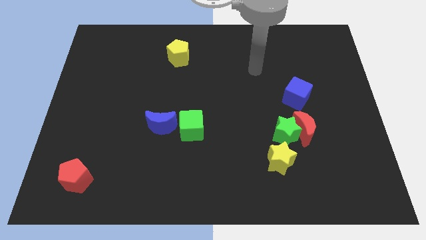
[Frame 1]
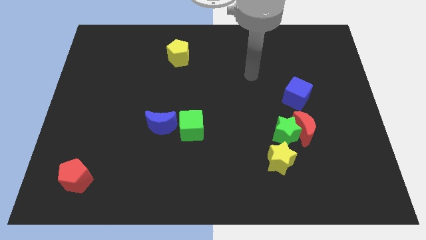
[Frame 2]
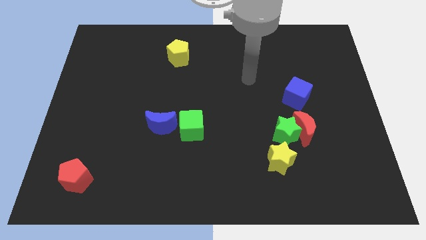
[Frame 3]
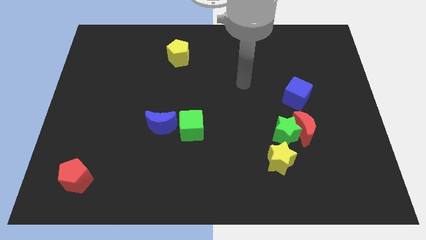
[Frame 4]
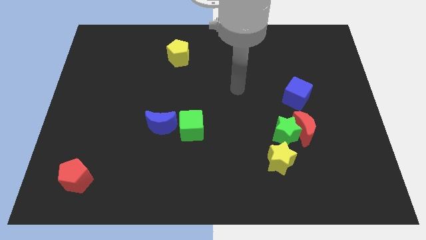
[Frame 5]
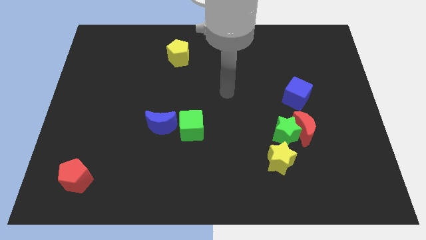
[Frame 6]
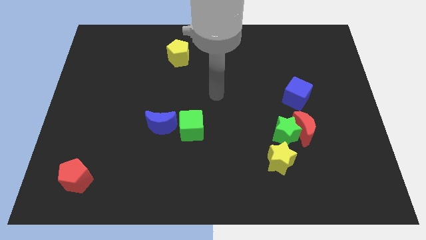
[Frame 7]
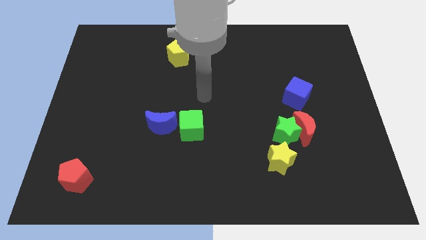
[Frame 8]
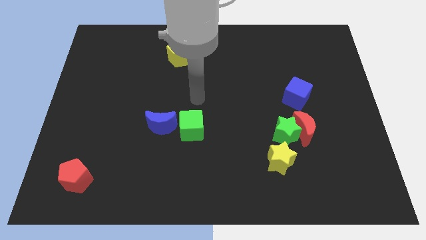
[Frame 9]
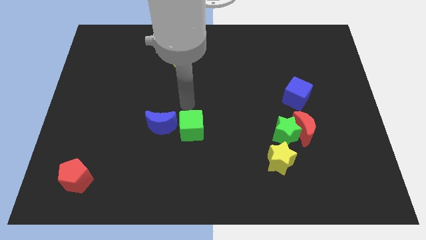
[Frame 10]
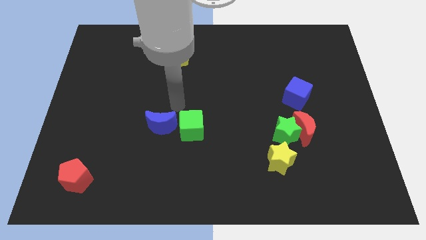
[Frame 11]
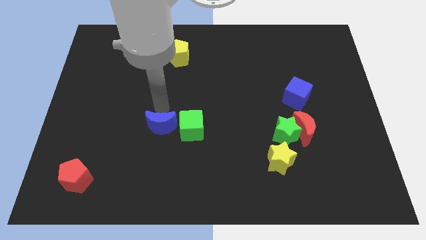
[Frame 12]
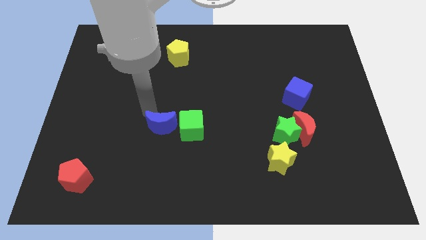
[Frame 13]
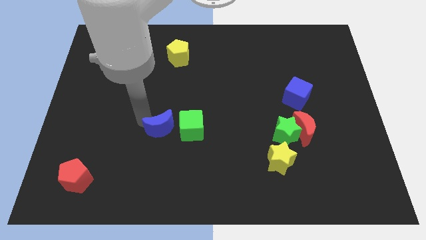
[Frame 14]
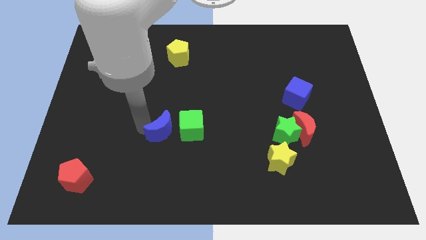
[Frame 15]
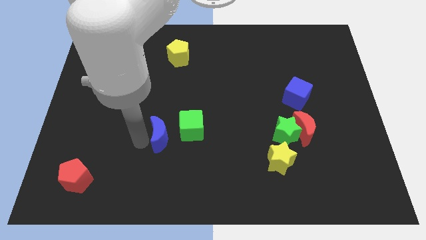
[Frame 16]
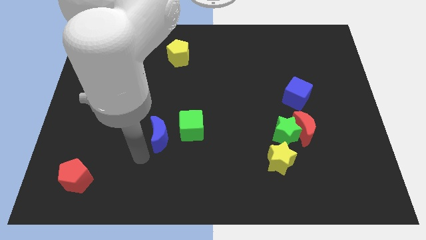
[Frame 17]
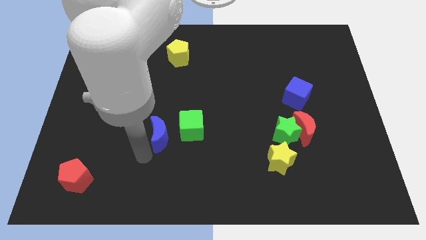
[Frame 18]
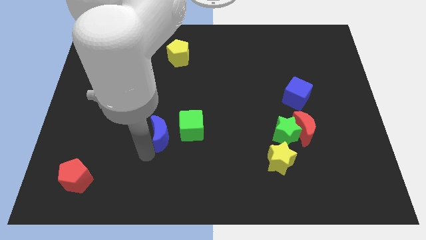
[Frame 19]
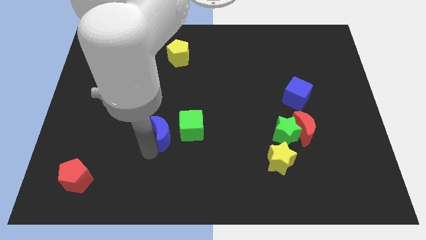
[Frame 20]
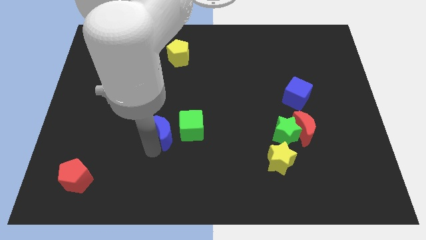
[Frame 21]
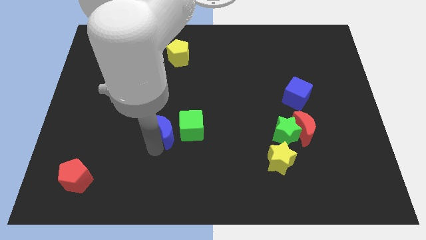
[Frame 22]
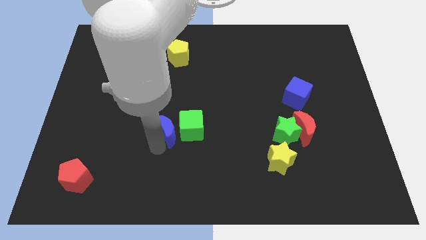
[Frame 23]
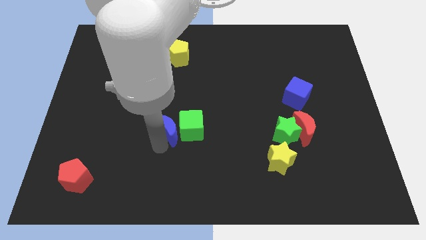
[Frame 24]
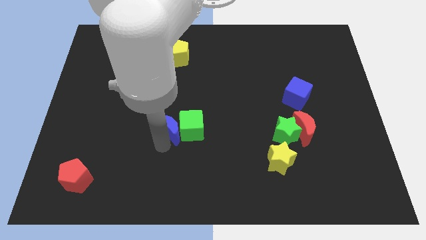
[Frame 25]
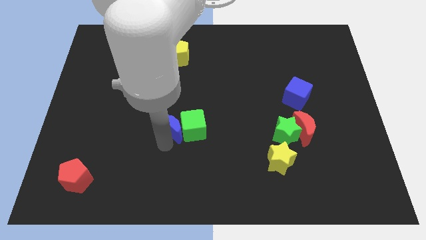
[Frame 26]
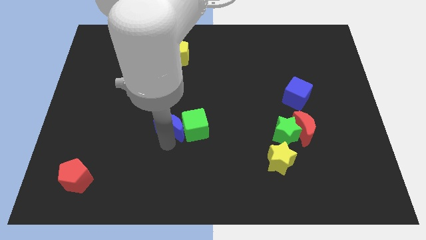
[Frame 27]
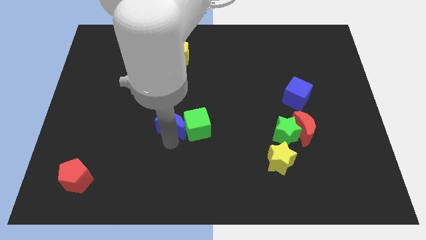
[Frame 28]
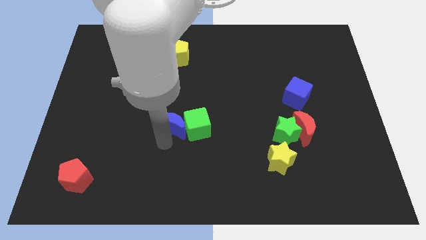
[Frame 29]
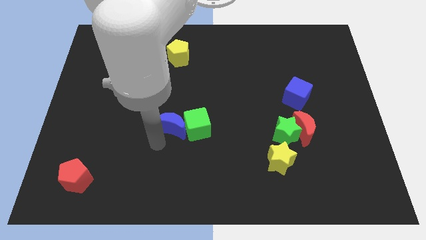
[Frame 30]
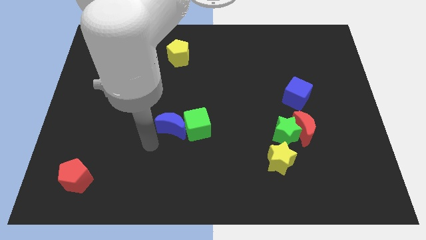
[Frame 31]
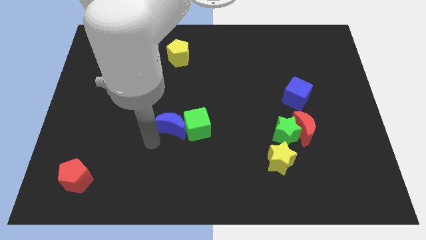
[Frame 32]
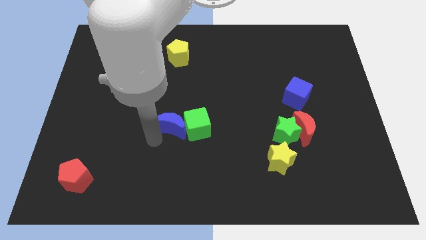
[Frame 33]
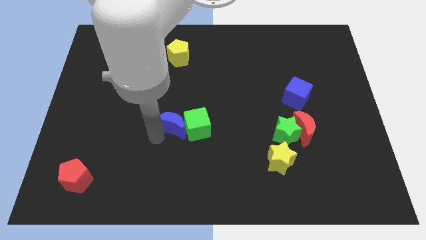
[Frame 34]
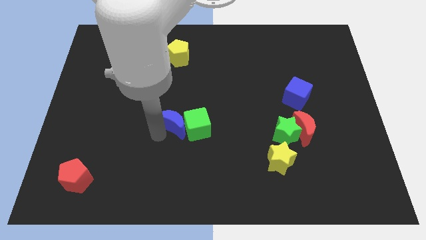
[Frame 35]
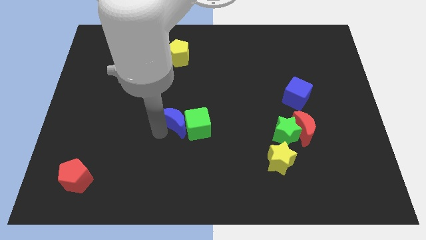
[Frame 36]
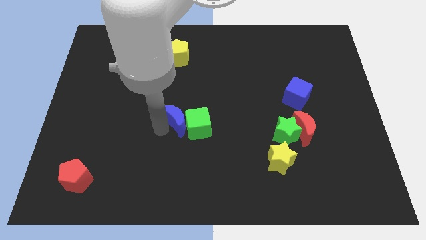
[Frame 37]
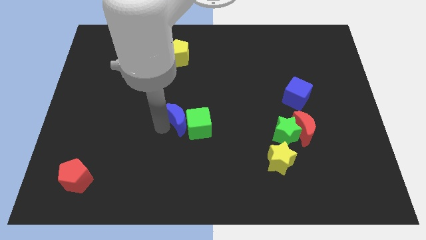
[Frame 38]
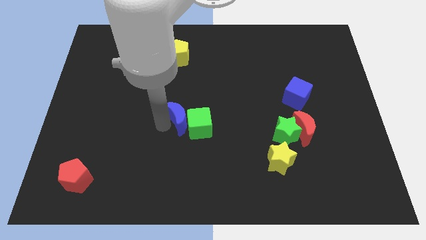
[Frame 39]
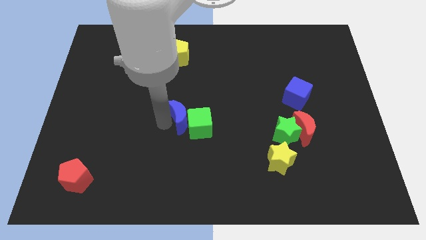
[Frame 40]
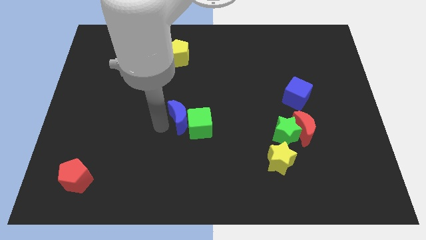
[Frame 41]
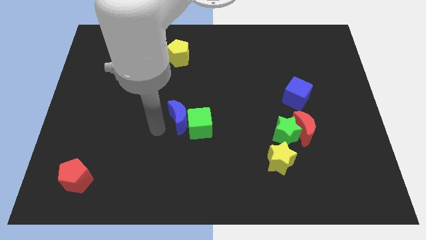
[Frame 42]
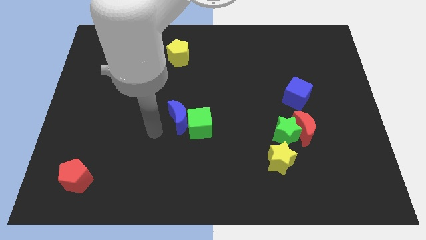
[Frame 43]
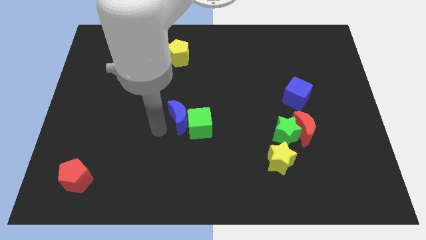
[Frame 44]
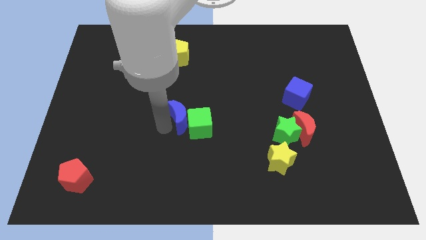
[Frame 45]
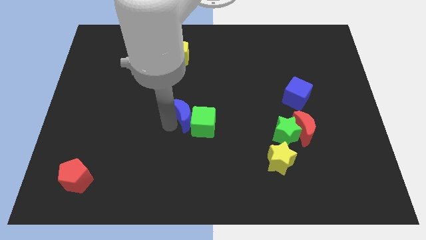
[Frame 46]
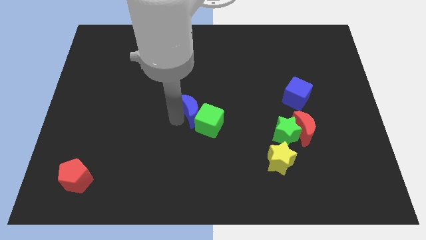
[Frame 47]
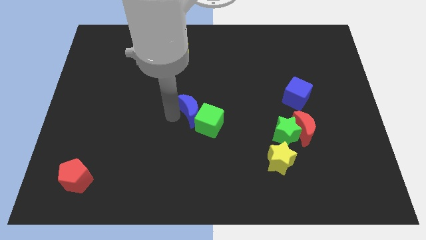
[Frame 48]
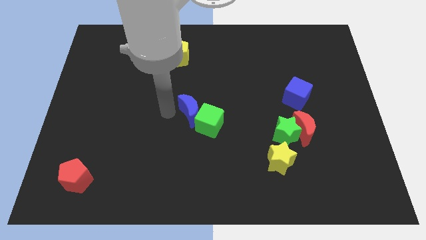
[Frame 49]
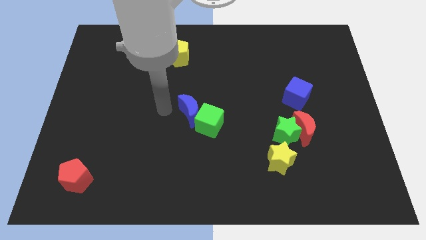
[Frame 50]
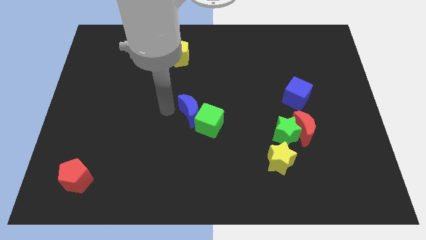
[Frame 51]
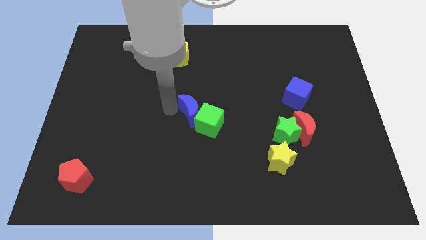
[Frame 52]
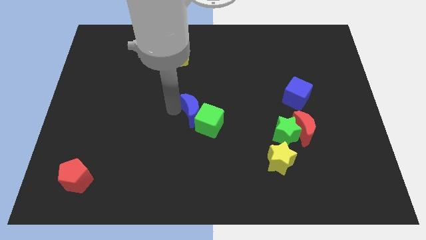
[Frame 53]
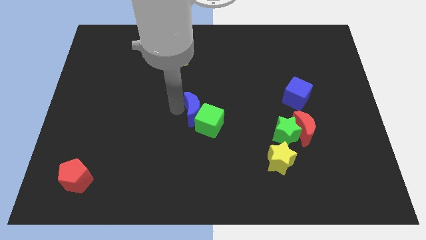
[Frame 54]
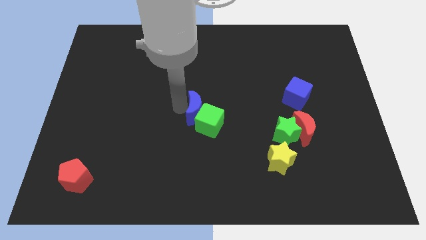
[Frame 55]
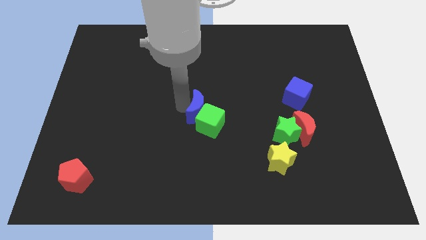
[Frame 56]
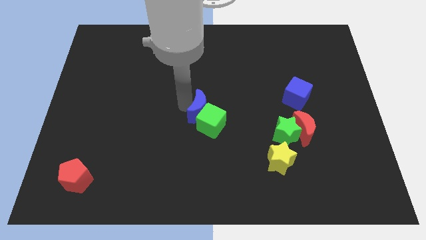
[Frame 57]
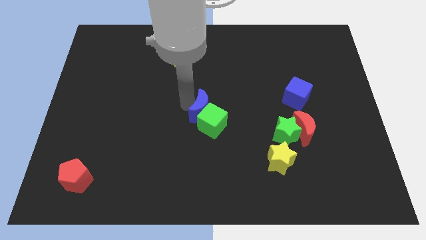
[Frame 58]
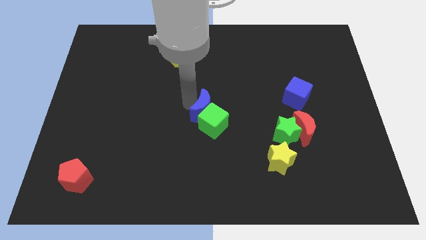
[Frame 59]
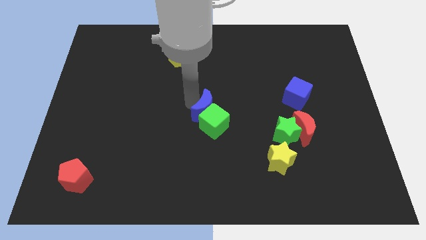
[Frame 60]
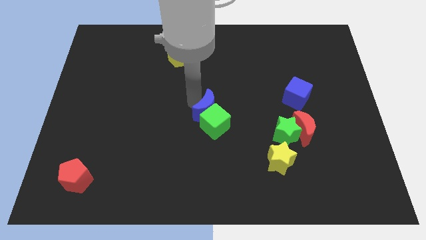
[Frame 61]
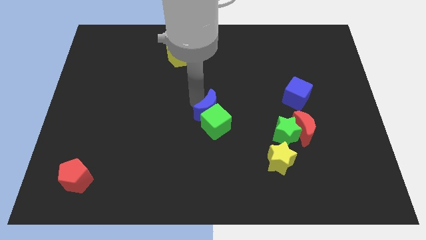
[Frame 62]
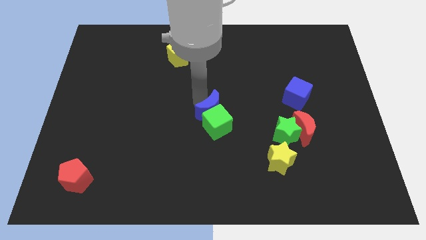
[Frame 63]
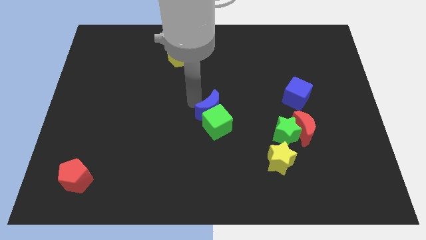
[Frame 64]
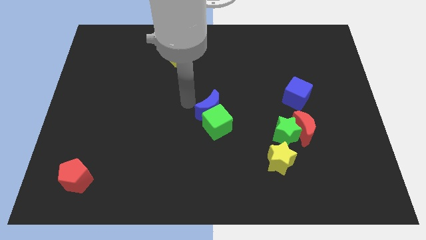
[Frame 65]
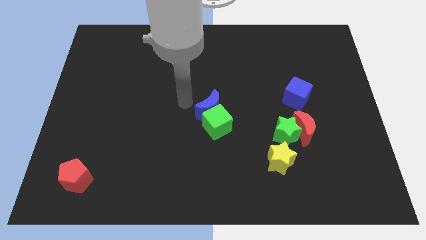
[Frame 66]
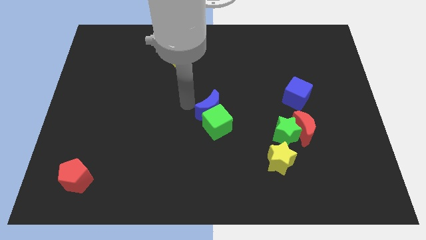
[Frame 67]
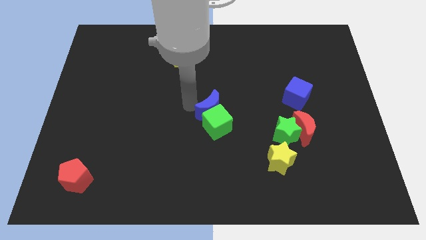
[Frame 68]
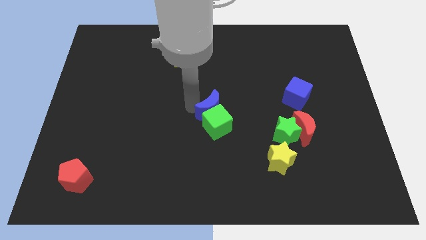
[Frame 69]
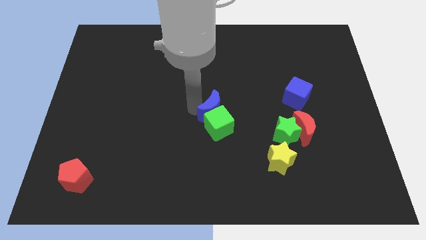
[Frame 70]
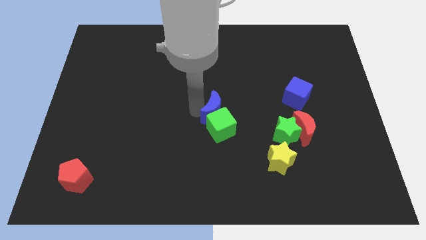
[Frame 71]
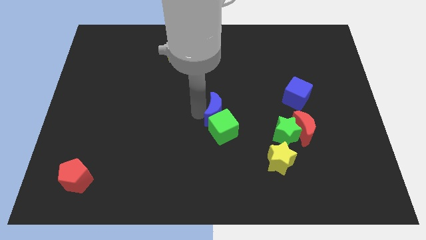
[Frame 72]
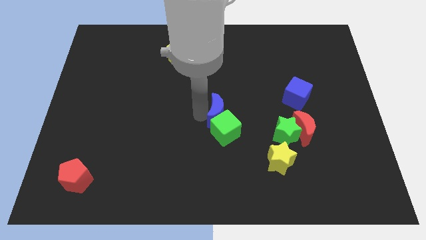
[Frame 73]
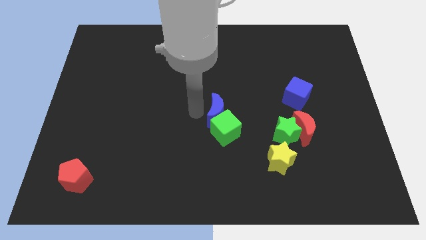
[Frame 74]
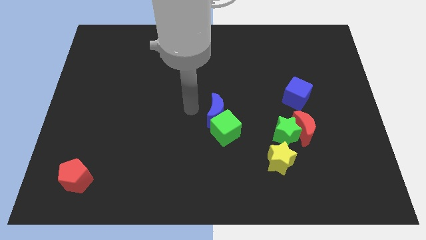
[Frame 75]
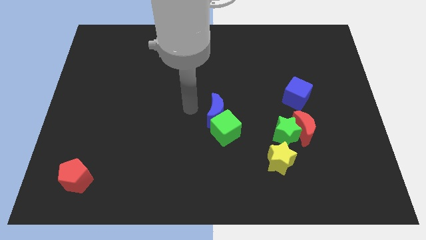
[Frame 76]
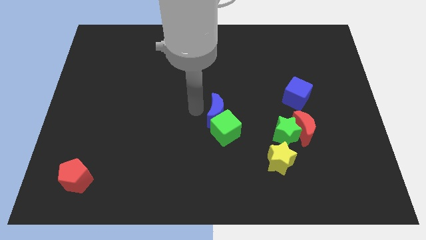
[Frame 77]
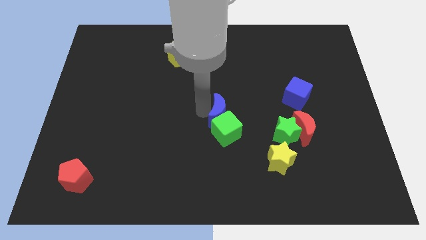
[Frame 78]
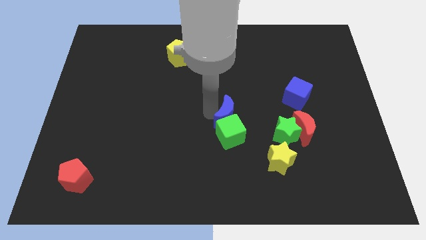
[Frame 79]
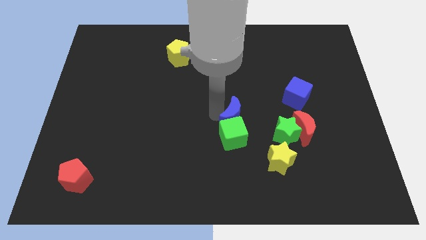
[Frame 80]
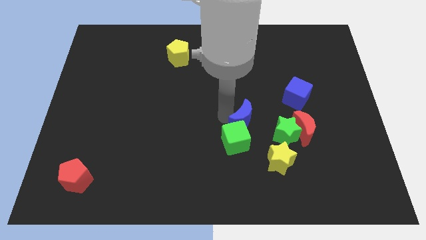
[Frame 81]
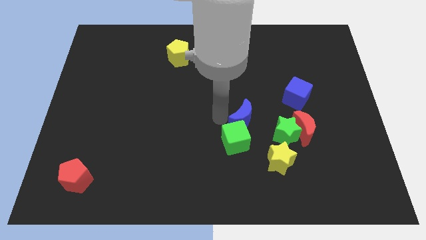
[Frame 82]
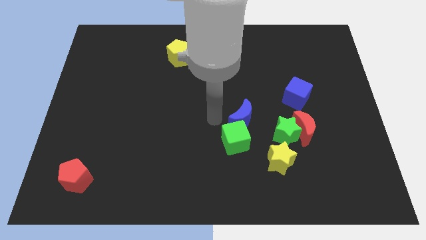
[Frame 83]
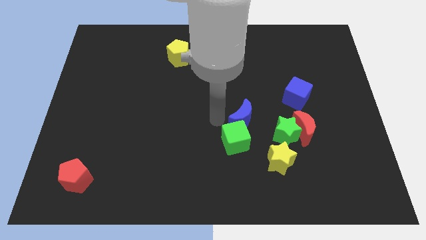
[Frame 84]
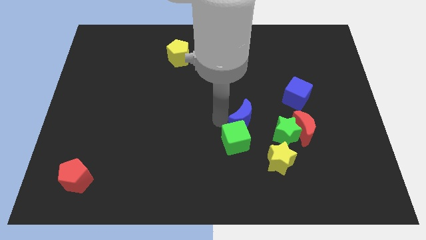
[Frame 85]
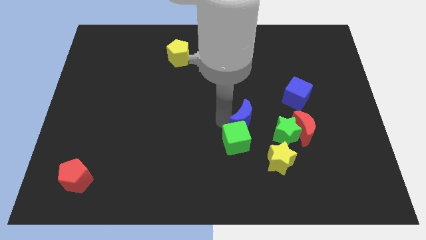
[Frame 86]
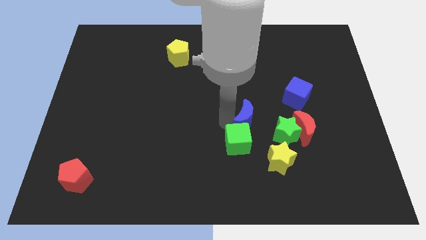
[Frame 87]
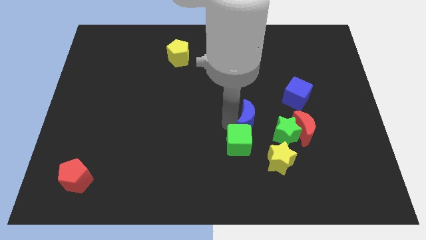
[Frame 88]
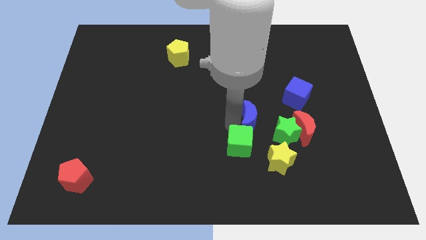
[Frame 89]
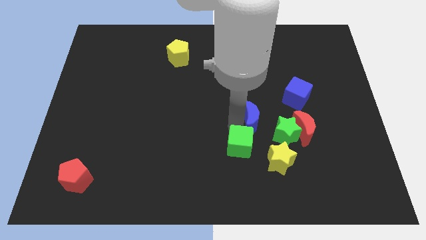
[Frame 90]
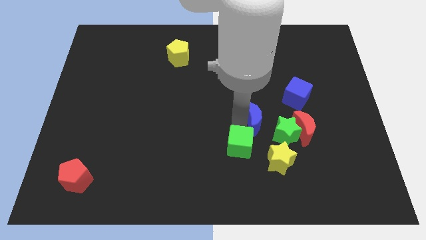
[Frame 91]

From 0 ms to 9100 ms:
slide the blue moon above the yellow star
